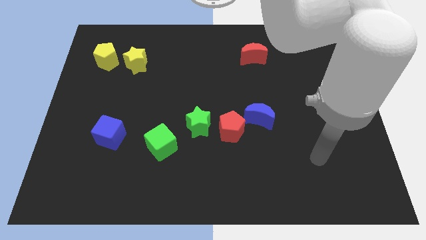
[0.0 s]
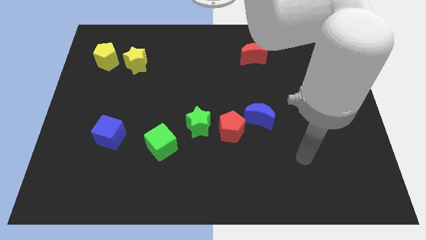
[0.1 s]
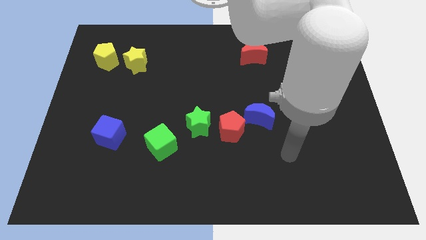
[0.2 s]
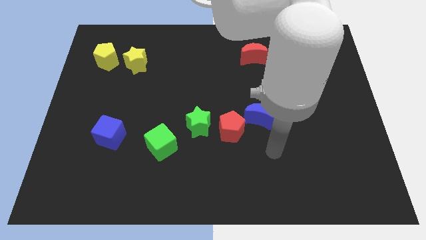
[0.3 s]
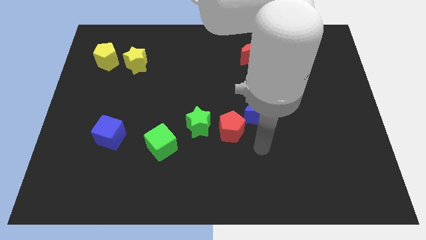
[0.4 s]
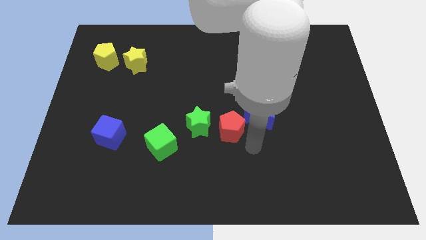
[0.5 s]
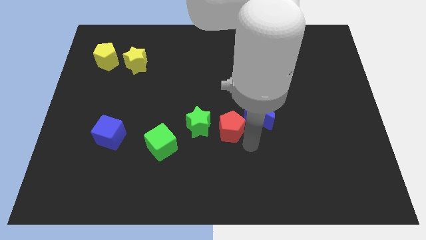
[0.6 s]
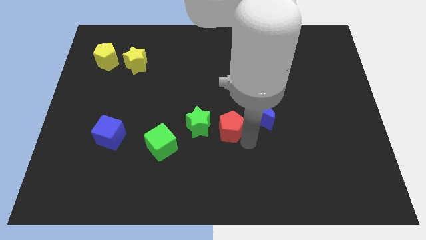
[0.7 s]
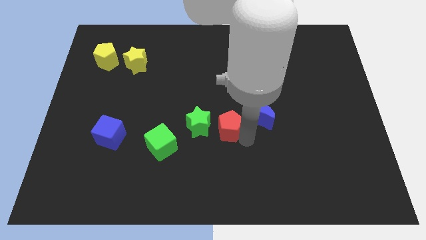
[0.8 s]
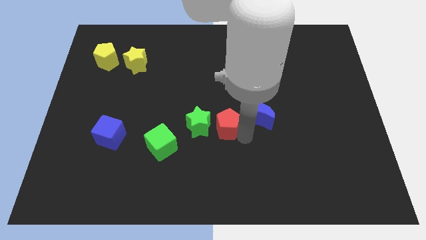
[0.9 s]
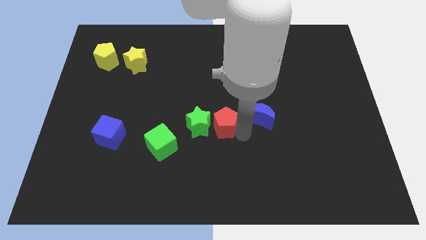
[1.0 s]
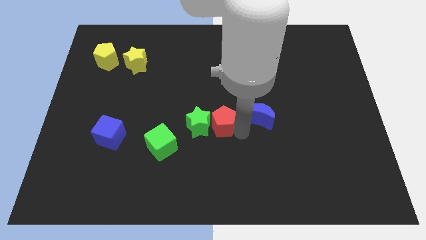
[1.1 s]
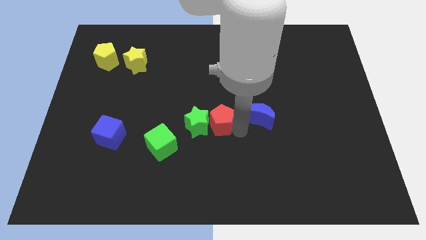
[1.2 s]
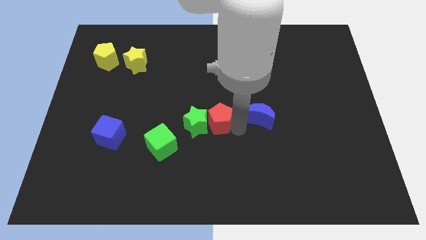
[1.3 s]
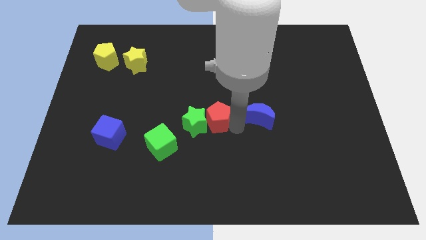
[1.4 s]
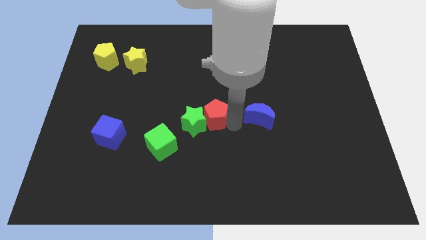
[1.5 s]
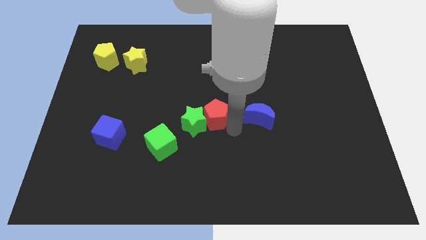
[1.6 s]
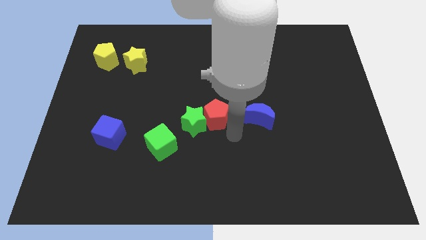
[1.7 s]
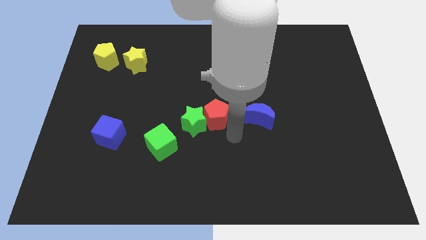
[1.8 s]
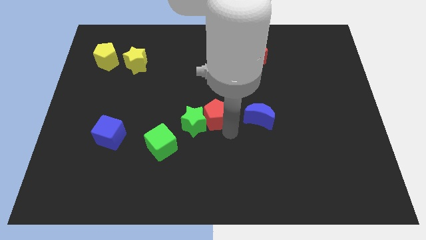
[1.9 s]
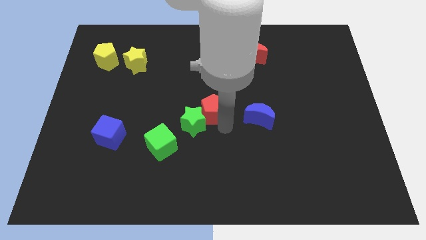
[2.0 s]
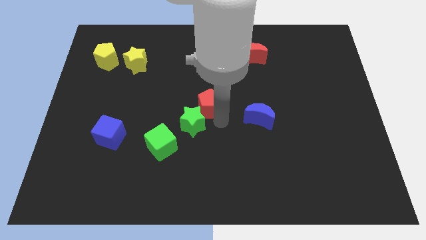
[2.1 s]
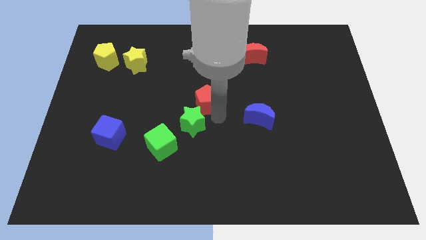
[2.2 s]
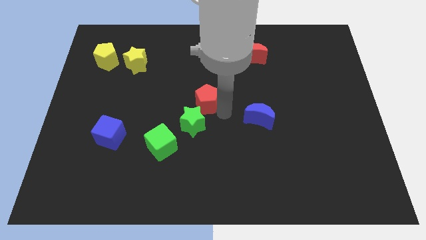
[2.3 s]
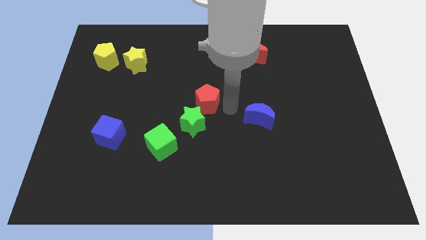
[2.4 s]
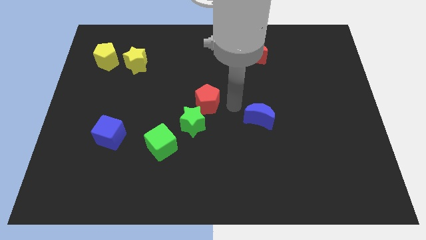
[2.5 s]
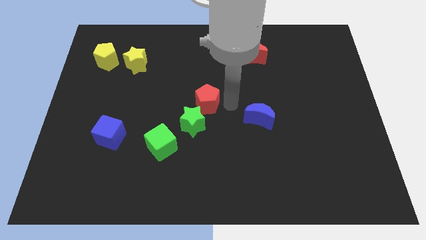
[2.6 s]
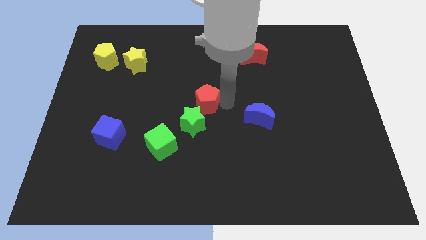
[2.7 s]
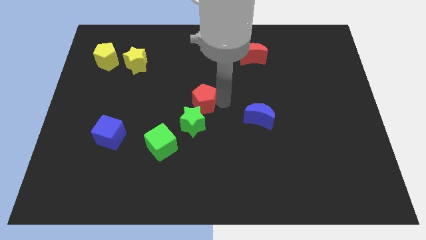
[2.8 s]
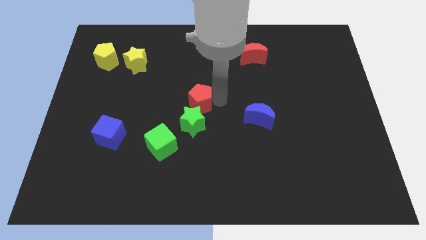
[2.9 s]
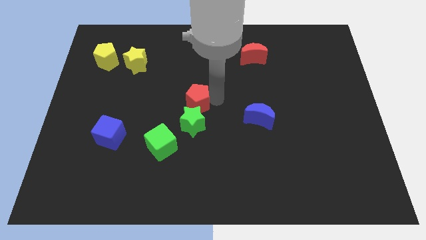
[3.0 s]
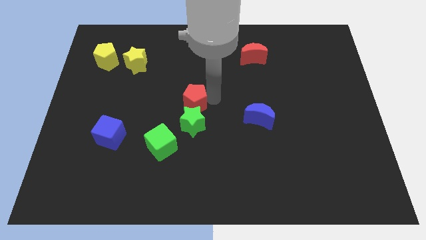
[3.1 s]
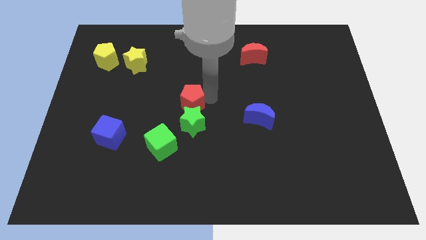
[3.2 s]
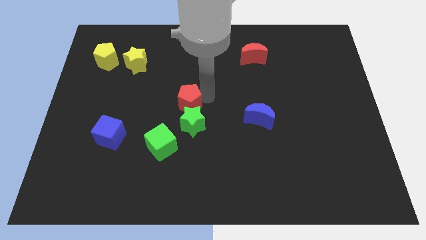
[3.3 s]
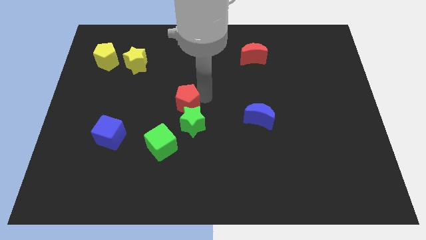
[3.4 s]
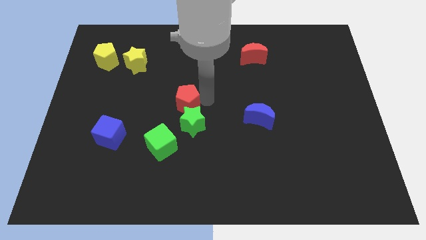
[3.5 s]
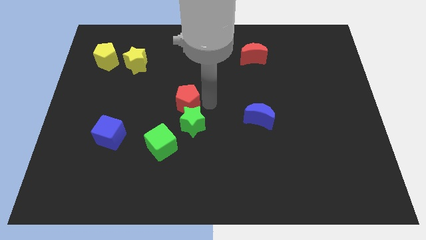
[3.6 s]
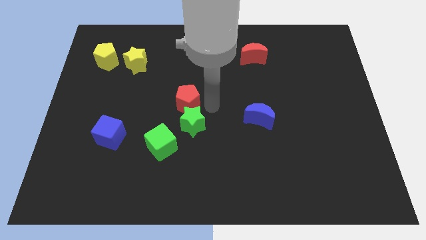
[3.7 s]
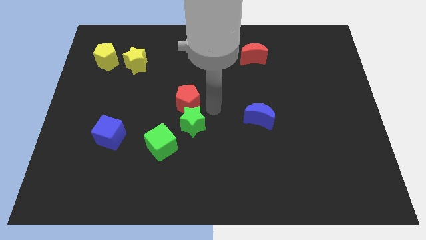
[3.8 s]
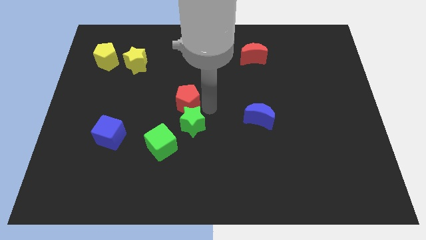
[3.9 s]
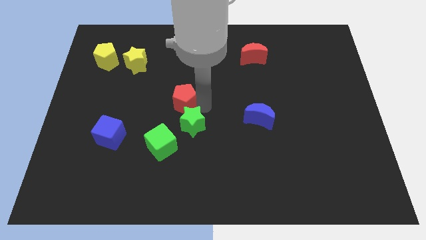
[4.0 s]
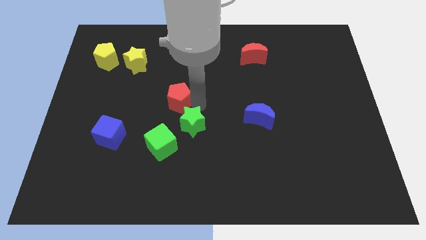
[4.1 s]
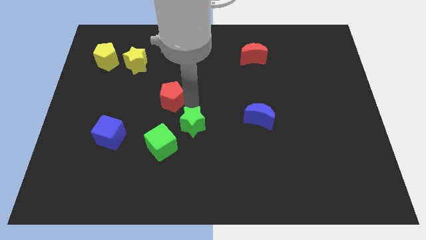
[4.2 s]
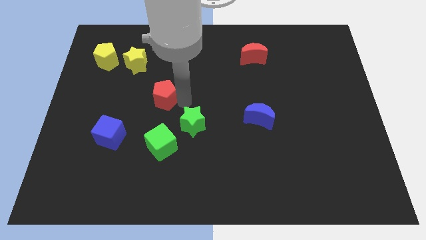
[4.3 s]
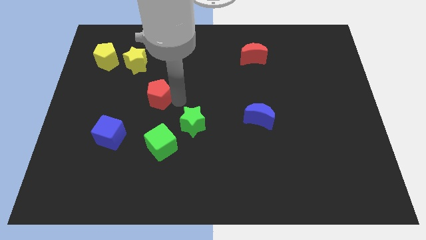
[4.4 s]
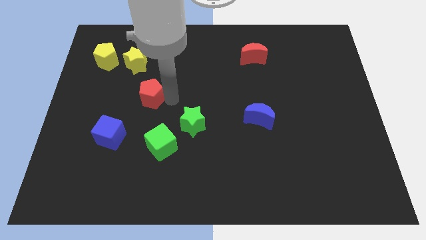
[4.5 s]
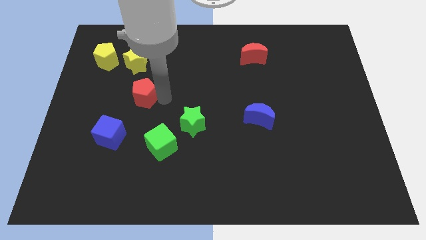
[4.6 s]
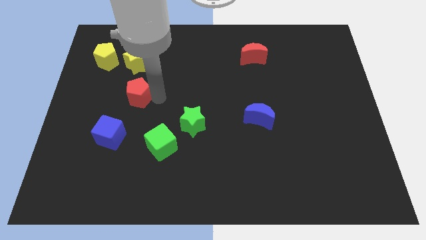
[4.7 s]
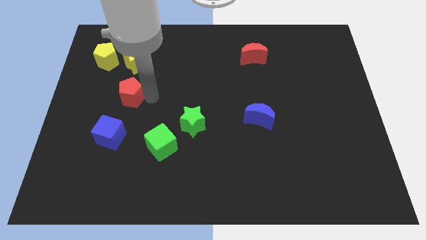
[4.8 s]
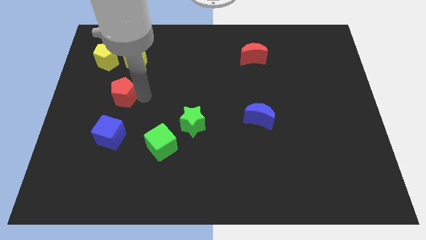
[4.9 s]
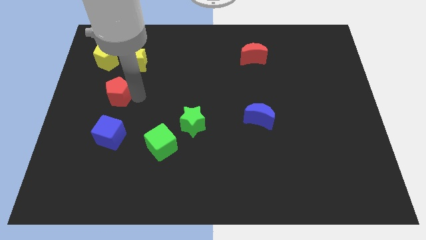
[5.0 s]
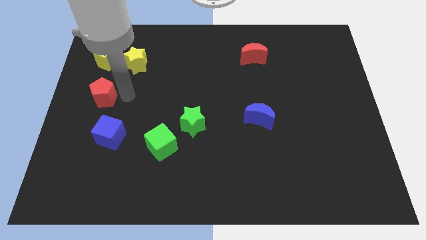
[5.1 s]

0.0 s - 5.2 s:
move the red pentagon to the left side of the board

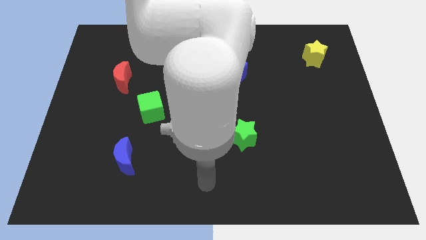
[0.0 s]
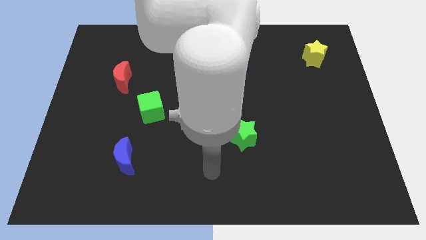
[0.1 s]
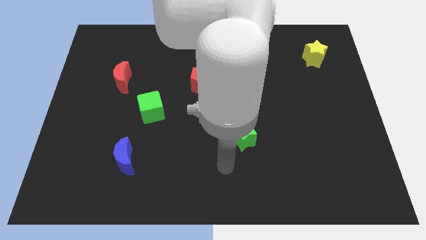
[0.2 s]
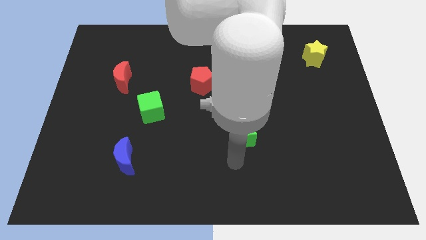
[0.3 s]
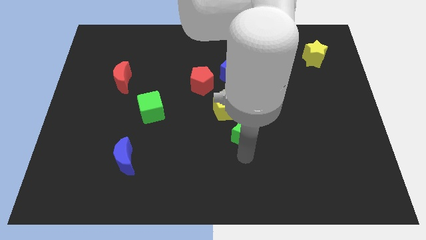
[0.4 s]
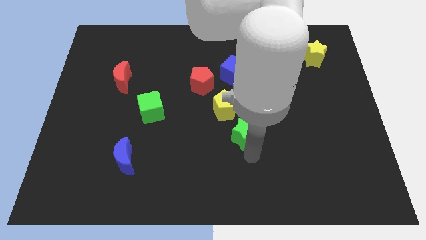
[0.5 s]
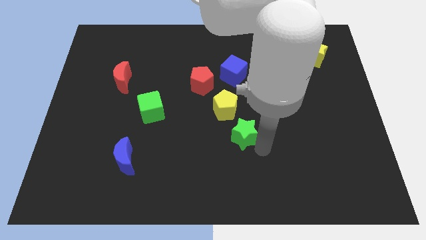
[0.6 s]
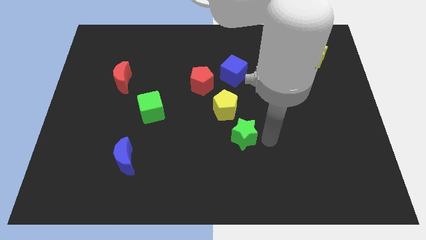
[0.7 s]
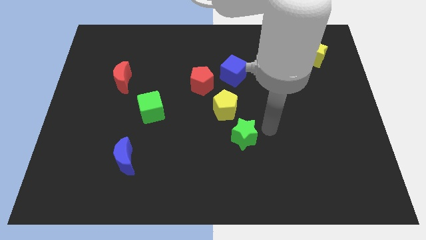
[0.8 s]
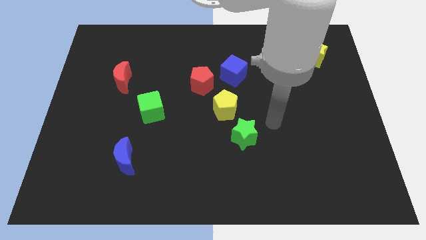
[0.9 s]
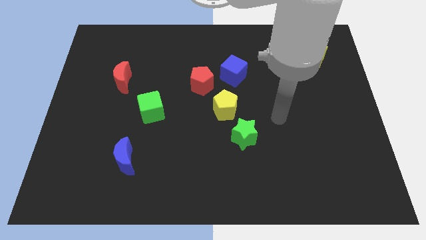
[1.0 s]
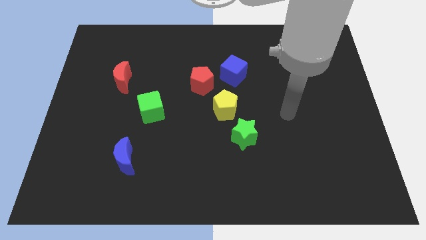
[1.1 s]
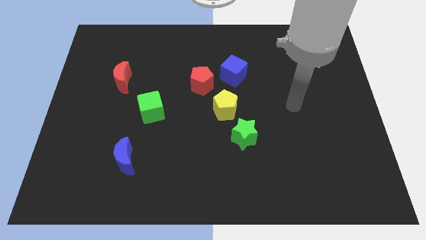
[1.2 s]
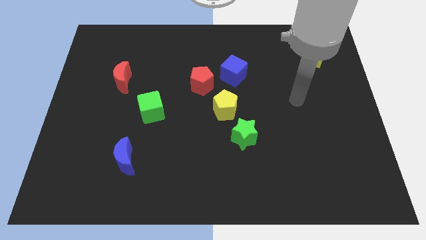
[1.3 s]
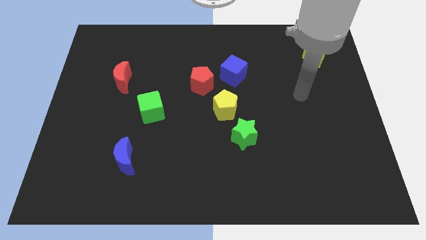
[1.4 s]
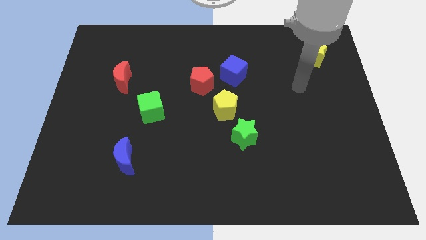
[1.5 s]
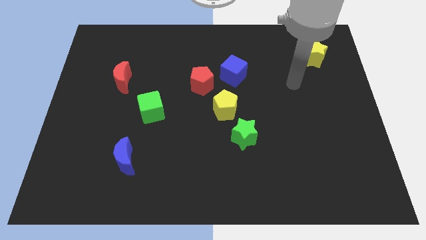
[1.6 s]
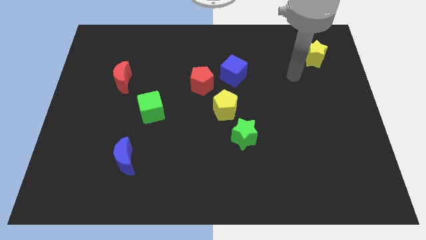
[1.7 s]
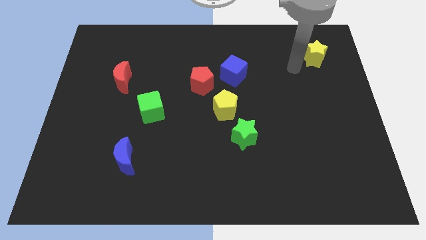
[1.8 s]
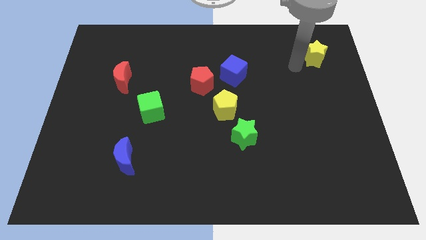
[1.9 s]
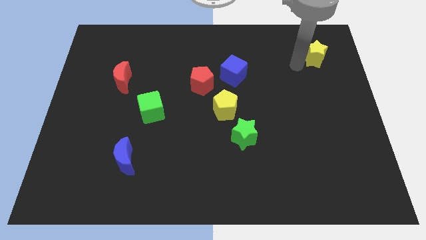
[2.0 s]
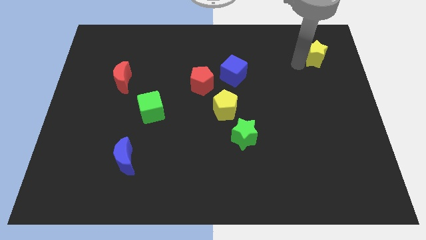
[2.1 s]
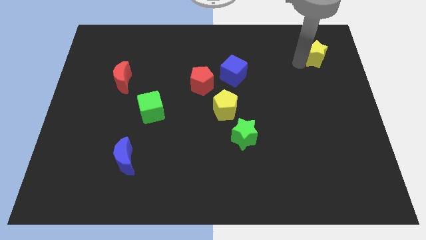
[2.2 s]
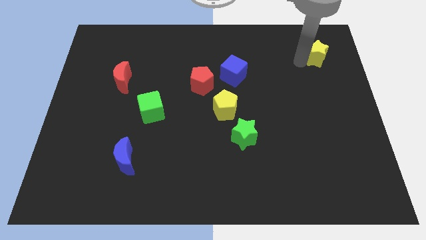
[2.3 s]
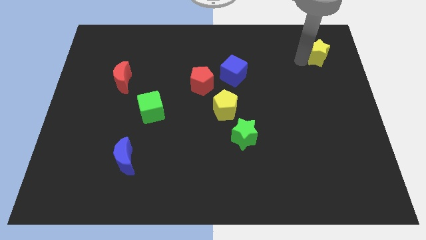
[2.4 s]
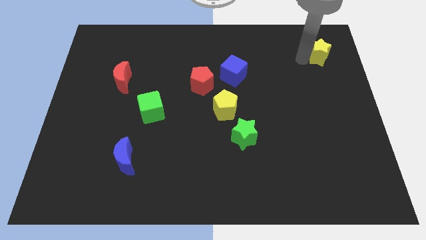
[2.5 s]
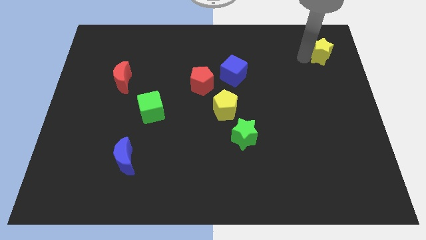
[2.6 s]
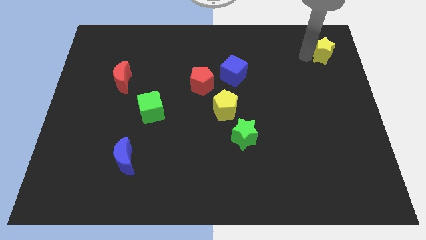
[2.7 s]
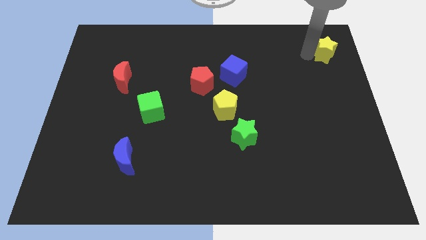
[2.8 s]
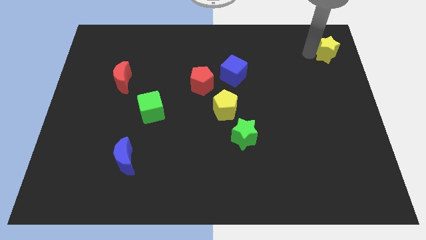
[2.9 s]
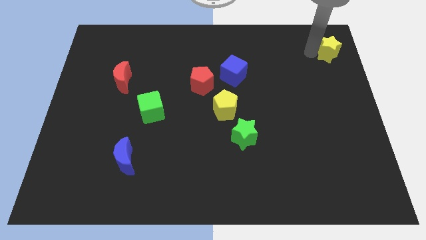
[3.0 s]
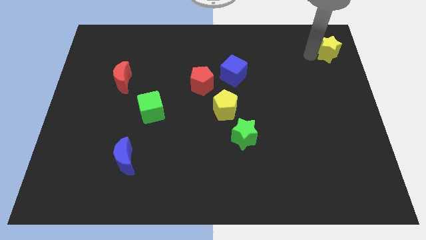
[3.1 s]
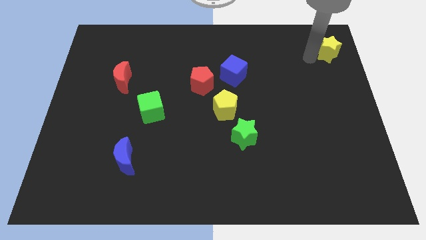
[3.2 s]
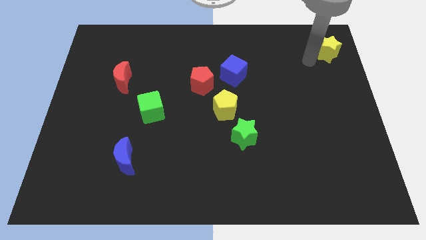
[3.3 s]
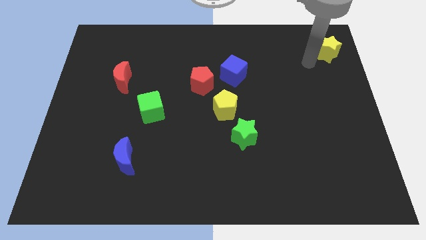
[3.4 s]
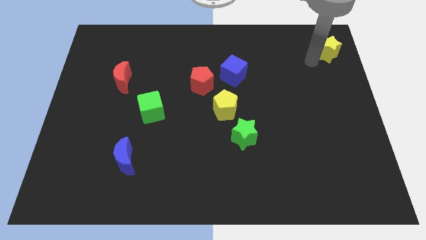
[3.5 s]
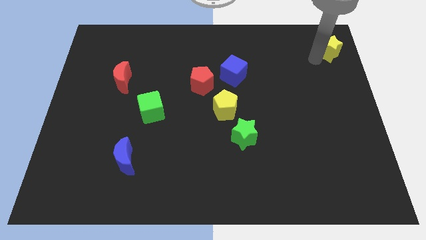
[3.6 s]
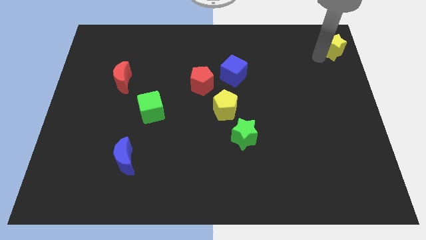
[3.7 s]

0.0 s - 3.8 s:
push the yellow star to the top right of the board
